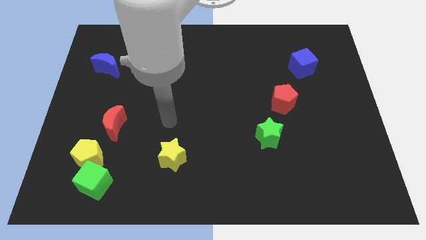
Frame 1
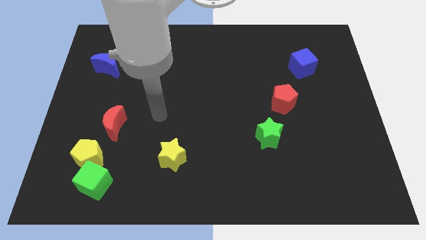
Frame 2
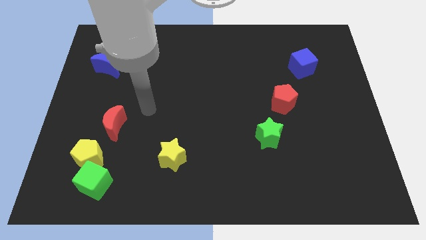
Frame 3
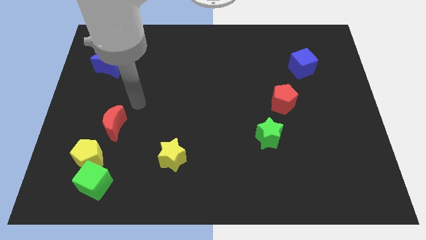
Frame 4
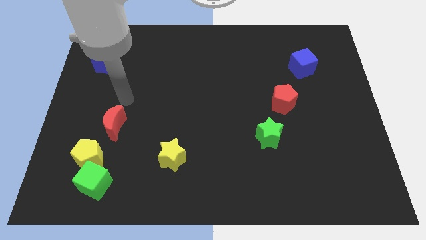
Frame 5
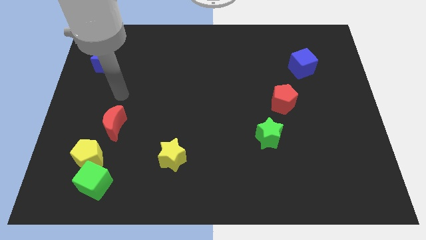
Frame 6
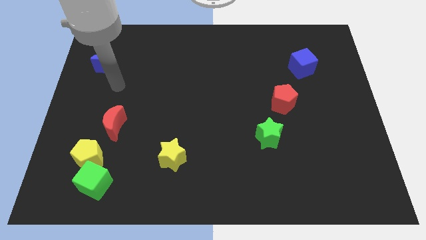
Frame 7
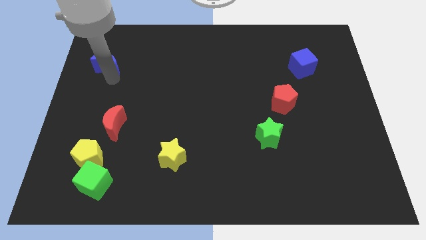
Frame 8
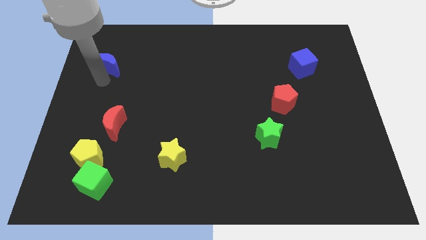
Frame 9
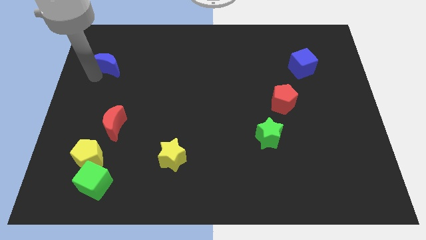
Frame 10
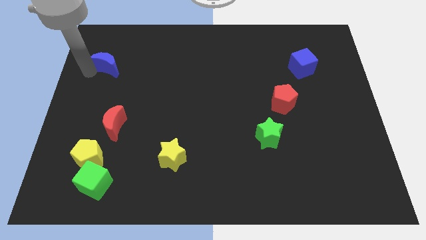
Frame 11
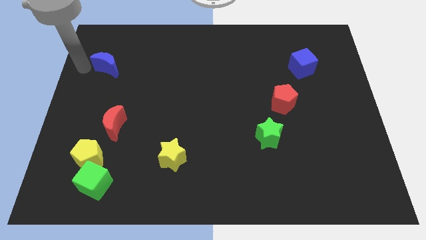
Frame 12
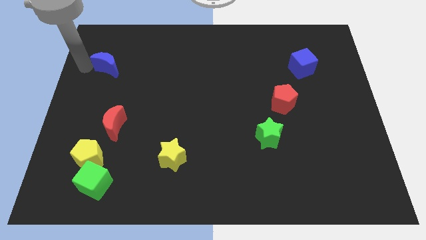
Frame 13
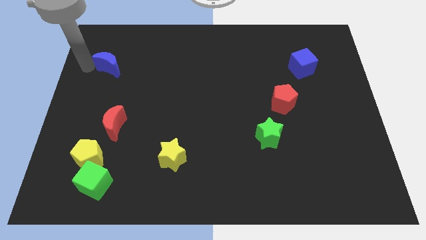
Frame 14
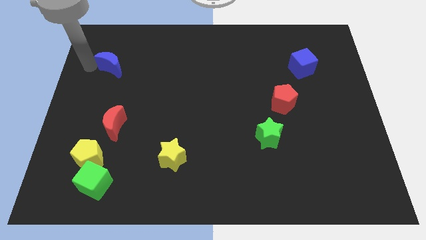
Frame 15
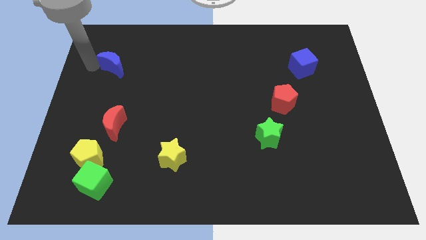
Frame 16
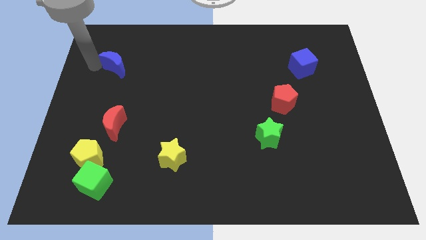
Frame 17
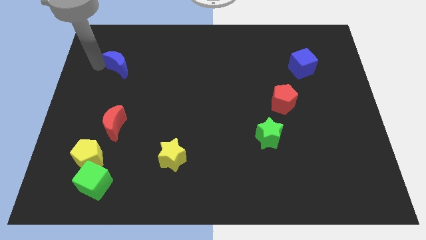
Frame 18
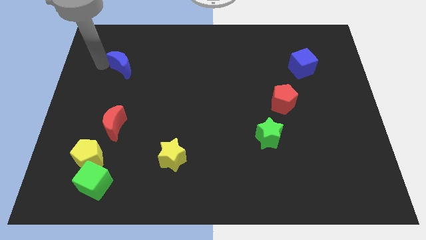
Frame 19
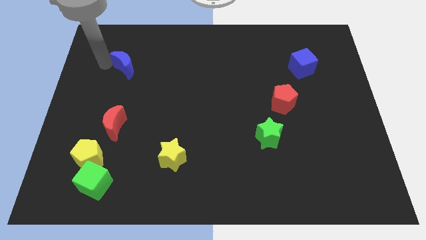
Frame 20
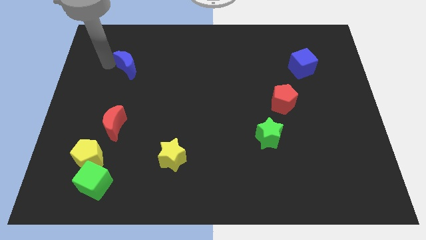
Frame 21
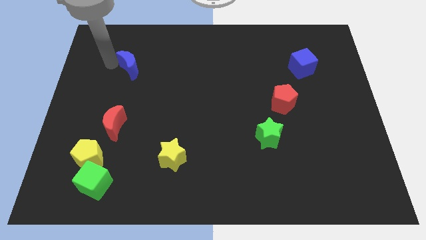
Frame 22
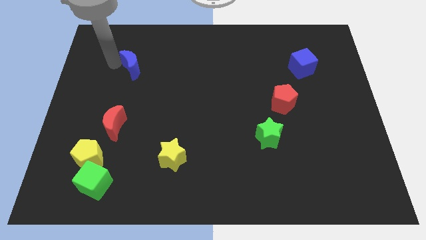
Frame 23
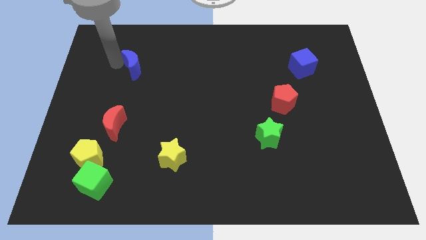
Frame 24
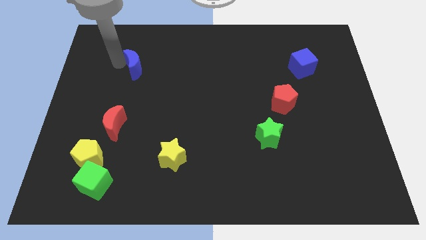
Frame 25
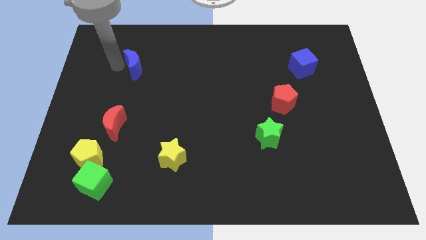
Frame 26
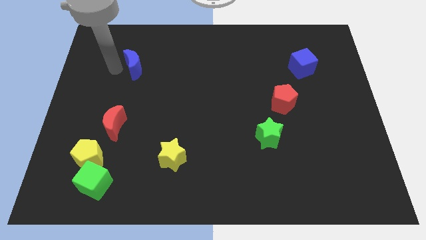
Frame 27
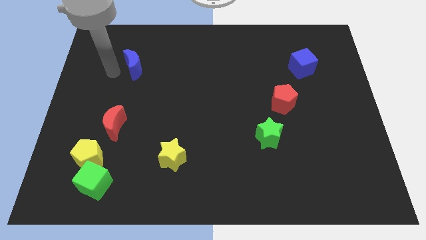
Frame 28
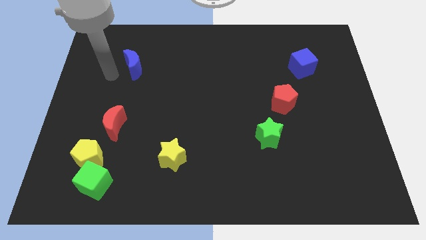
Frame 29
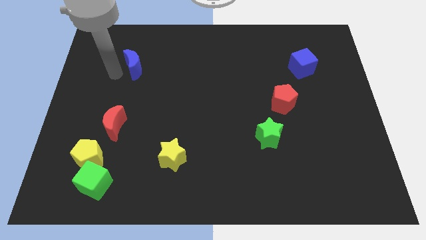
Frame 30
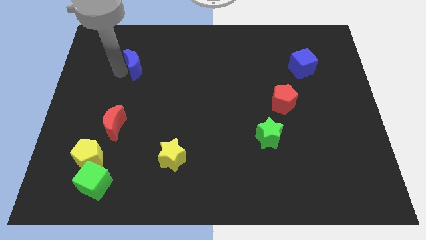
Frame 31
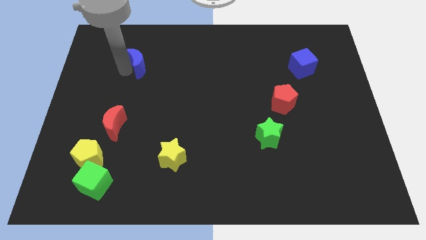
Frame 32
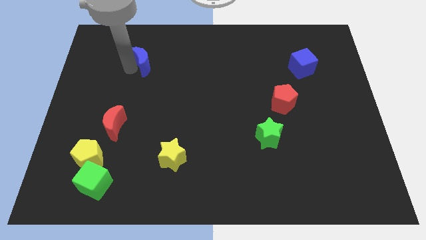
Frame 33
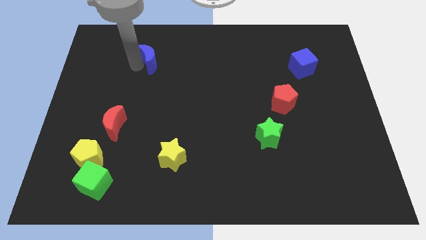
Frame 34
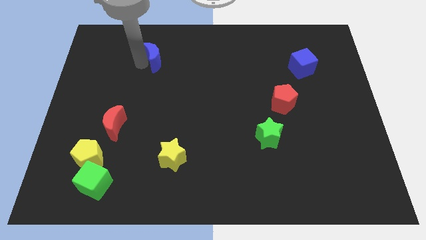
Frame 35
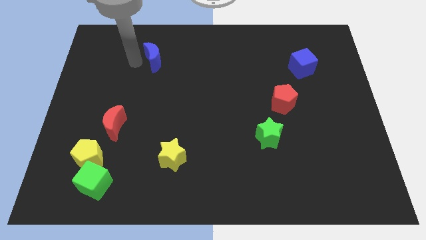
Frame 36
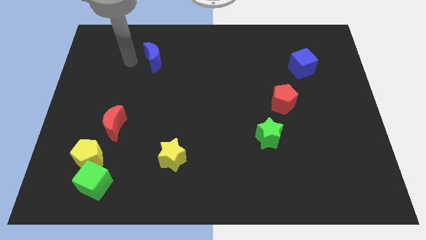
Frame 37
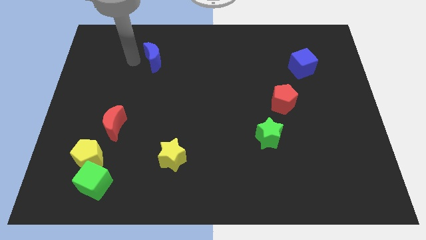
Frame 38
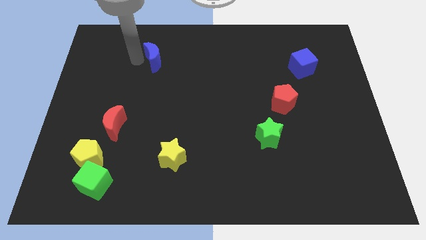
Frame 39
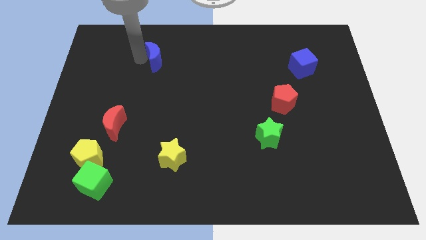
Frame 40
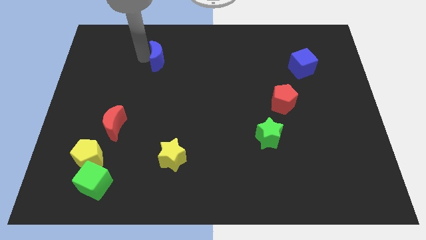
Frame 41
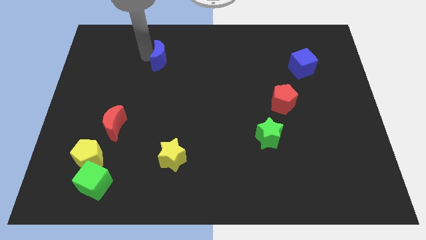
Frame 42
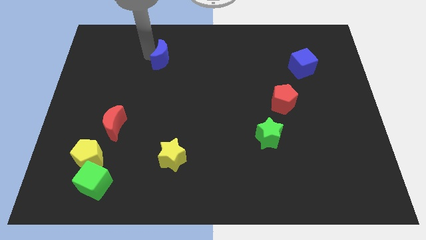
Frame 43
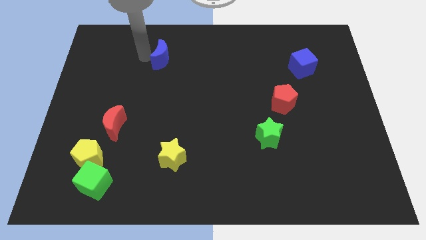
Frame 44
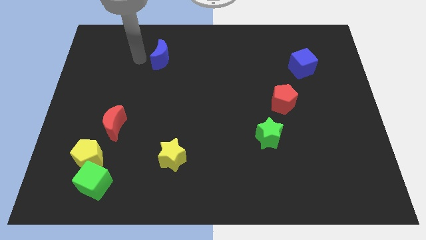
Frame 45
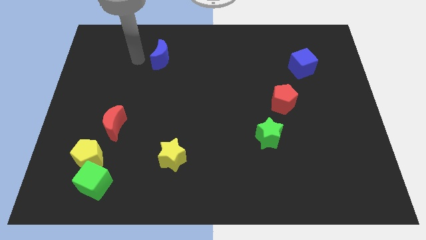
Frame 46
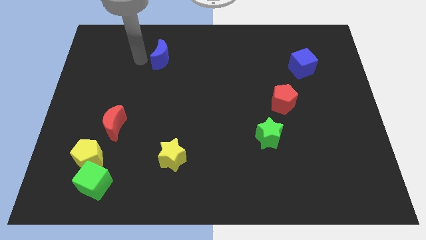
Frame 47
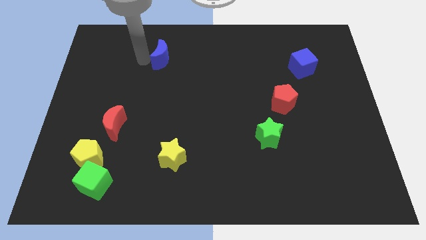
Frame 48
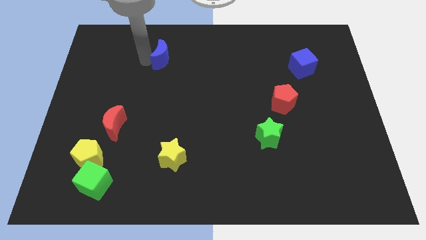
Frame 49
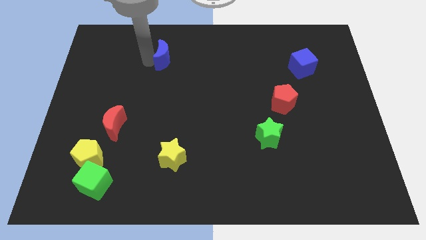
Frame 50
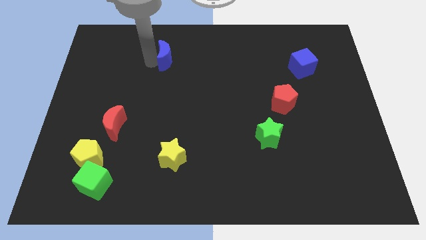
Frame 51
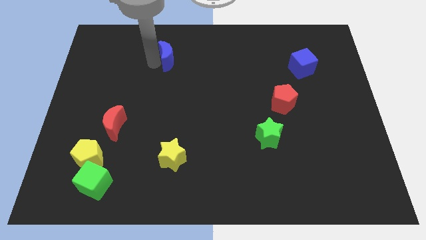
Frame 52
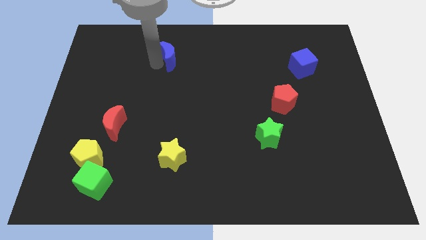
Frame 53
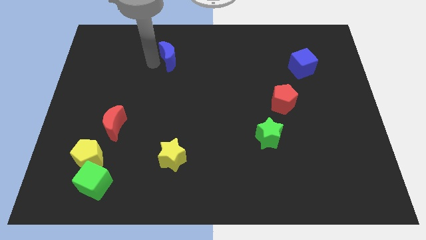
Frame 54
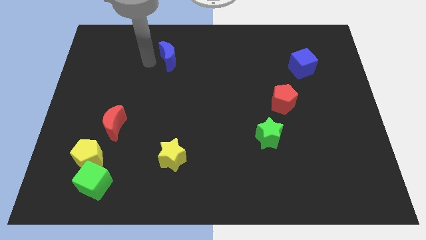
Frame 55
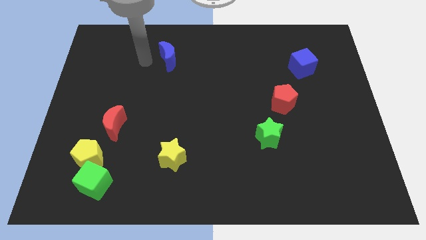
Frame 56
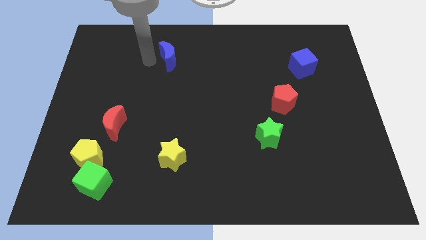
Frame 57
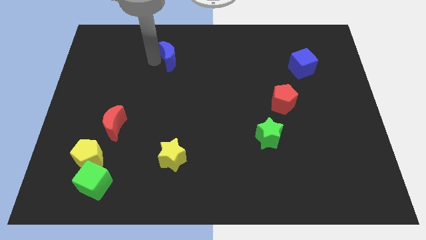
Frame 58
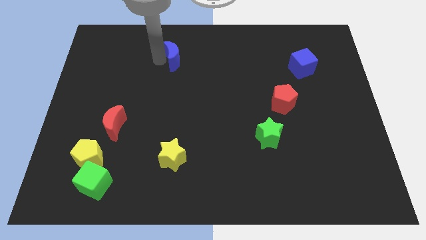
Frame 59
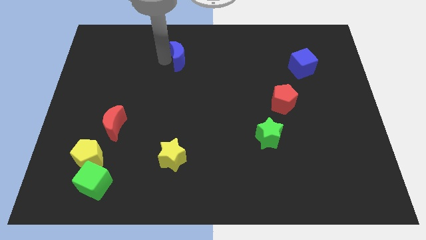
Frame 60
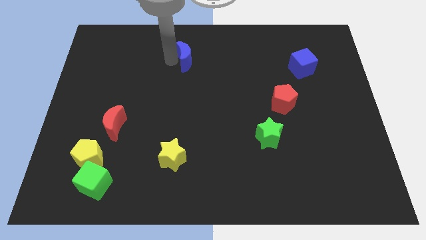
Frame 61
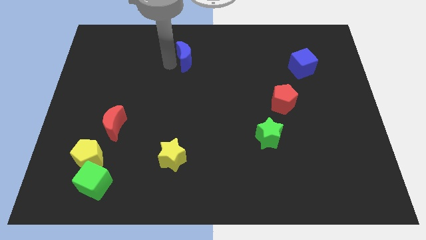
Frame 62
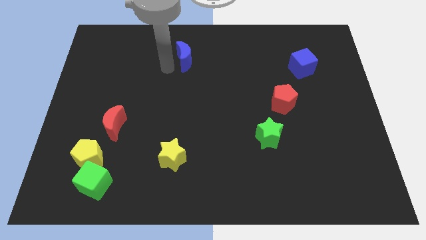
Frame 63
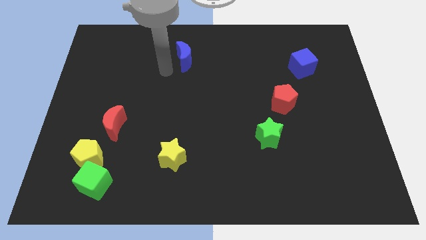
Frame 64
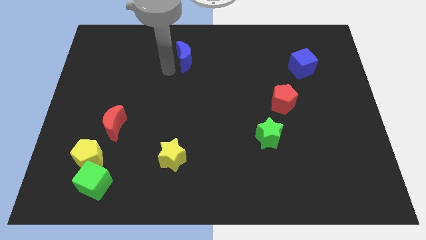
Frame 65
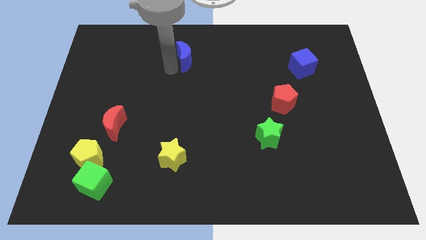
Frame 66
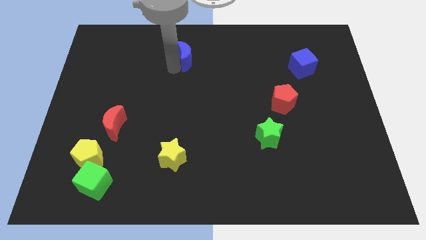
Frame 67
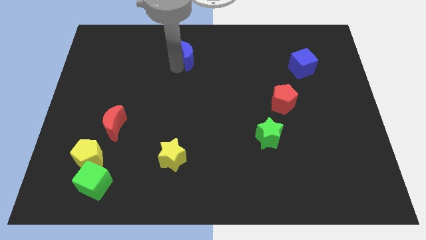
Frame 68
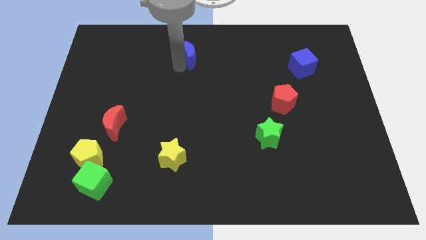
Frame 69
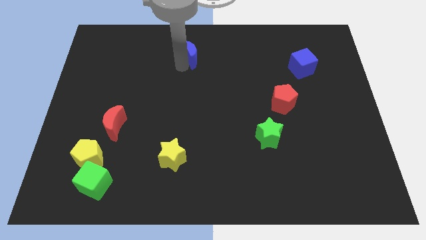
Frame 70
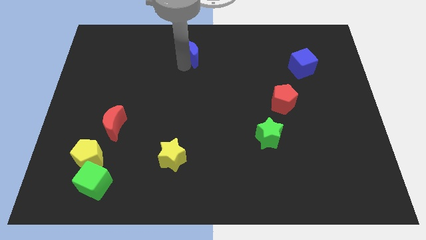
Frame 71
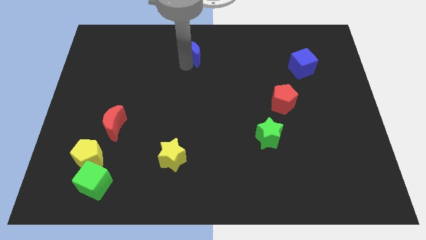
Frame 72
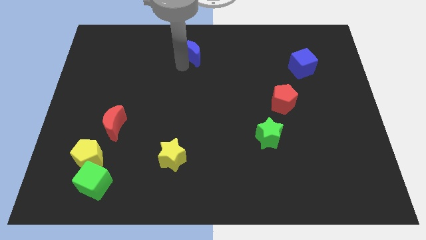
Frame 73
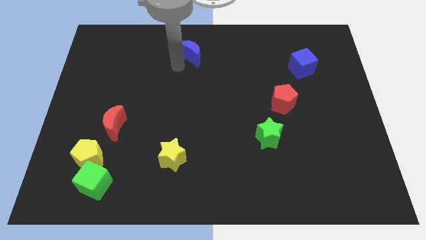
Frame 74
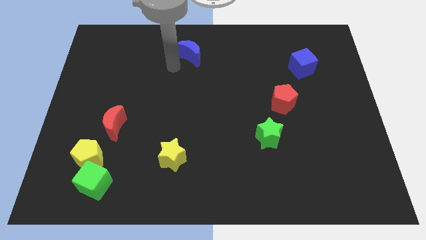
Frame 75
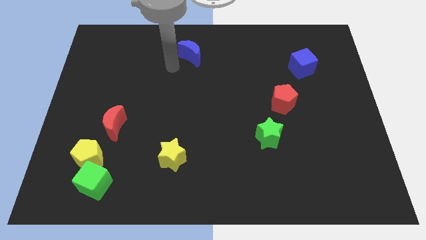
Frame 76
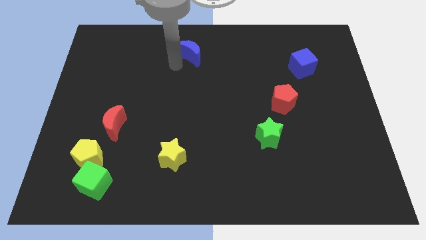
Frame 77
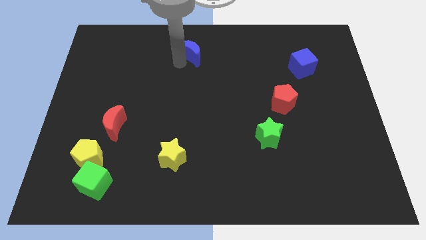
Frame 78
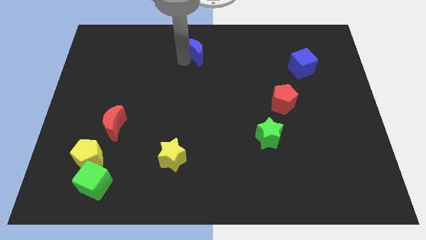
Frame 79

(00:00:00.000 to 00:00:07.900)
slide the blue moon to the top

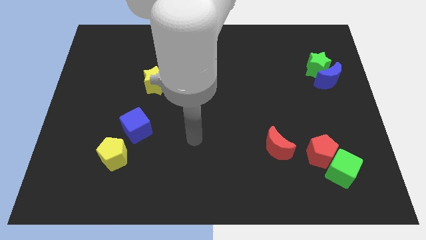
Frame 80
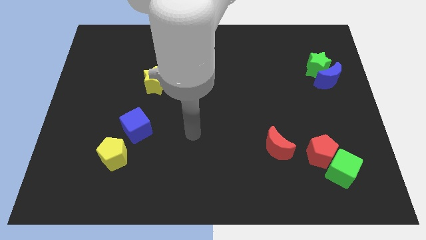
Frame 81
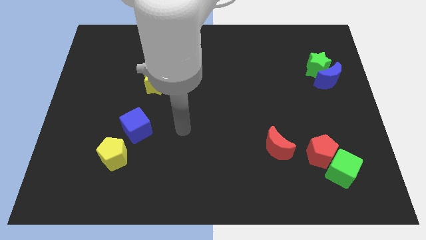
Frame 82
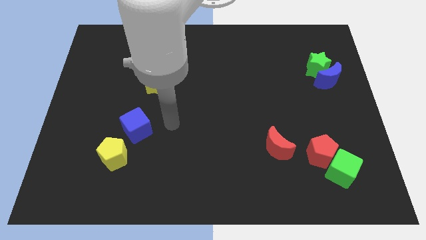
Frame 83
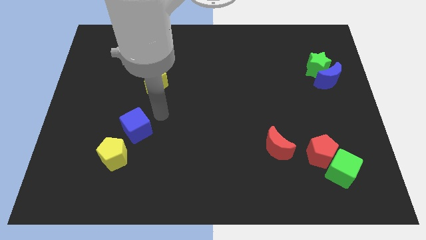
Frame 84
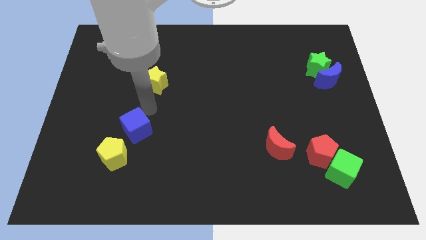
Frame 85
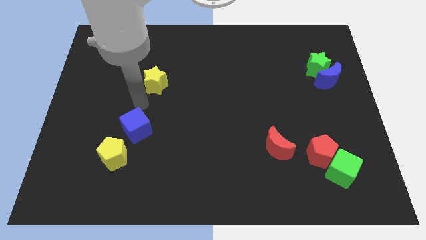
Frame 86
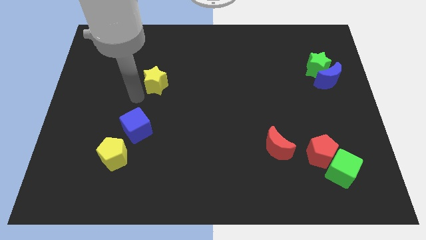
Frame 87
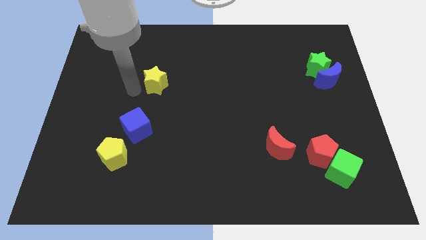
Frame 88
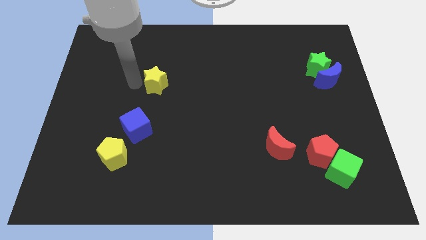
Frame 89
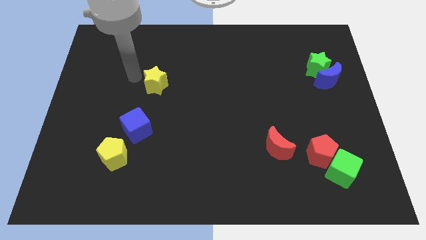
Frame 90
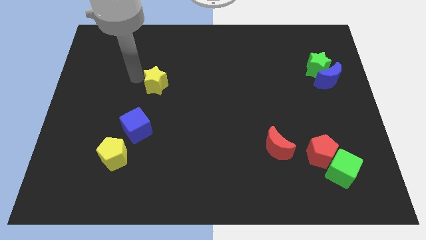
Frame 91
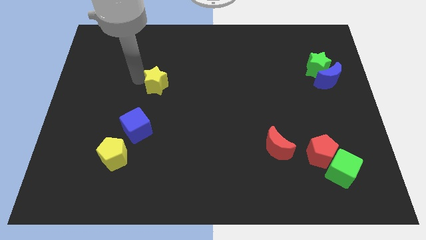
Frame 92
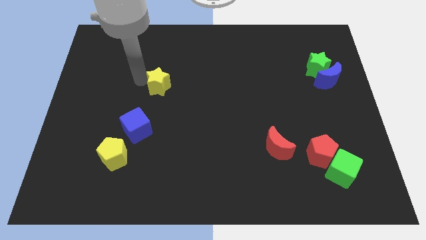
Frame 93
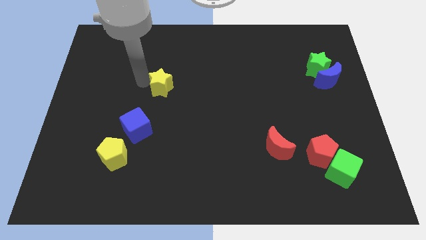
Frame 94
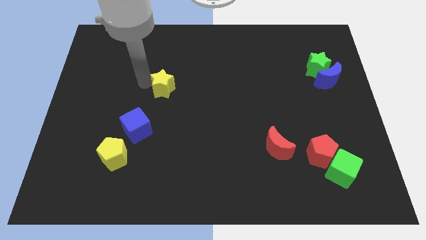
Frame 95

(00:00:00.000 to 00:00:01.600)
move the yellow star to the center
